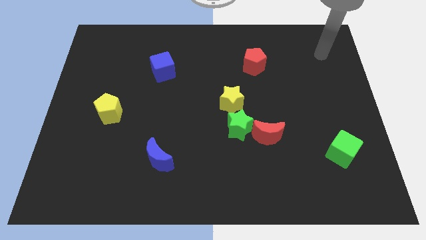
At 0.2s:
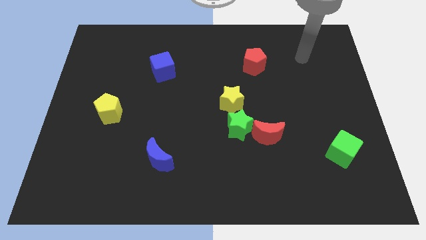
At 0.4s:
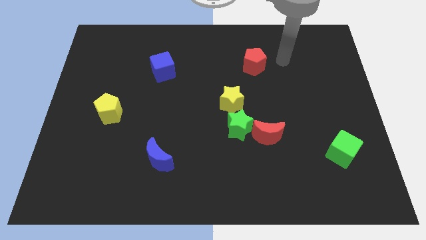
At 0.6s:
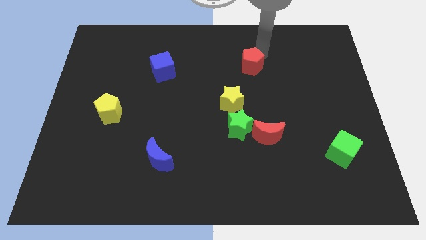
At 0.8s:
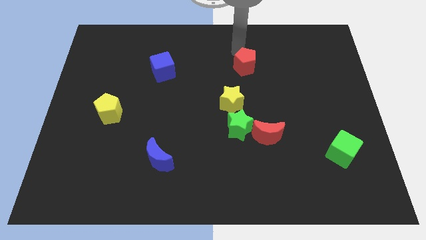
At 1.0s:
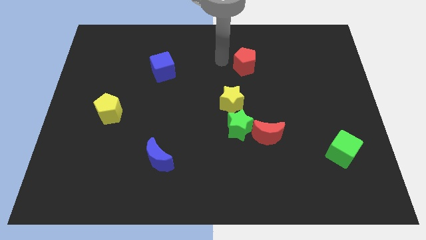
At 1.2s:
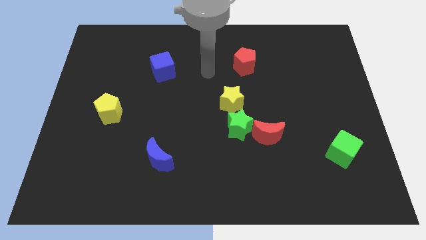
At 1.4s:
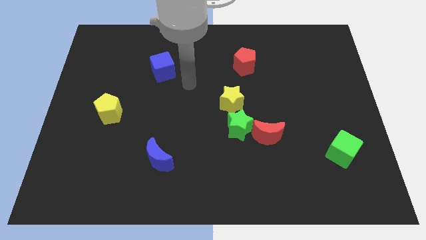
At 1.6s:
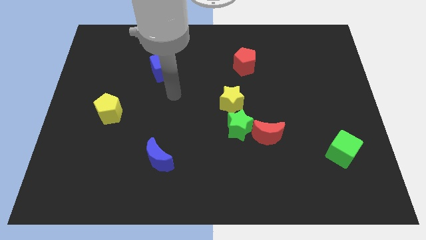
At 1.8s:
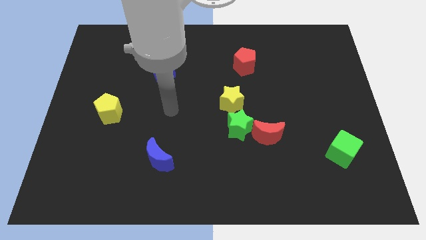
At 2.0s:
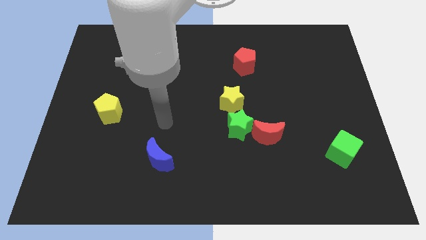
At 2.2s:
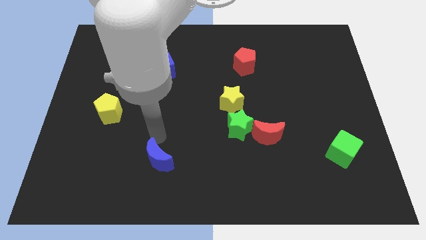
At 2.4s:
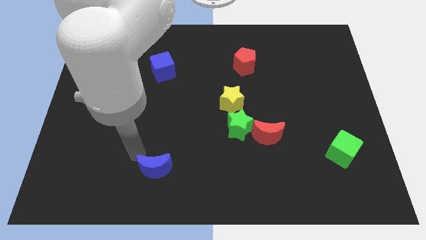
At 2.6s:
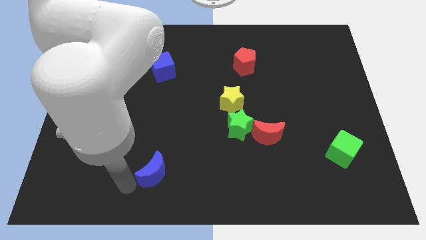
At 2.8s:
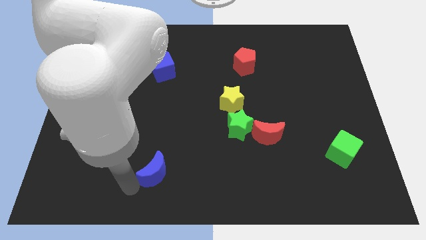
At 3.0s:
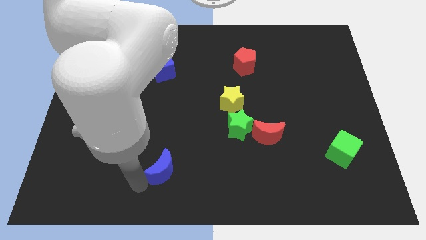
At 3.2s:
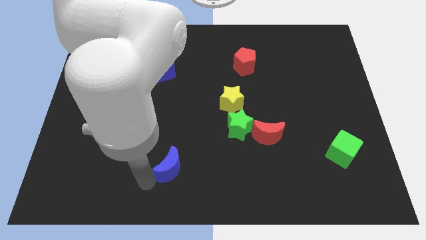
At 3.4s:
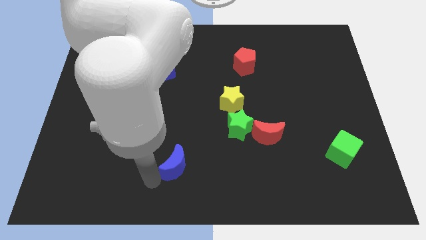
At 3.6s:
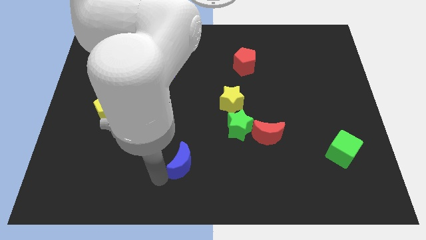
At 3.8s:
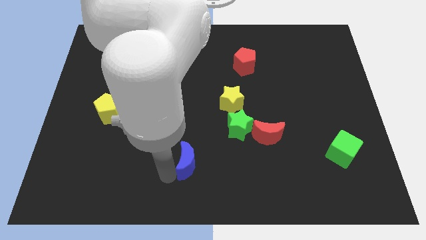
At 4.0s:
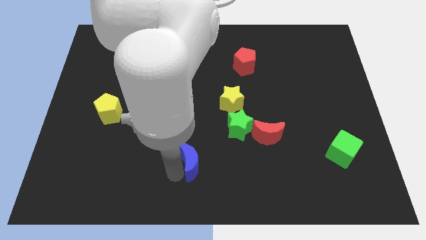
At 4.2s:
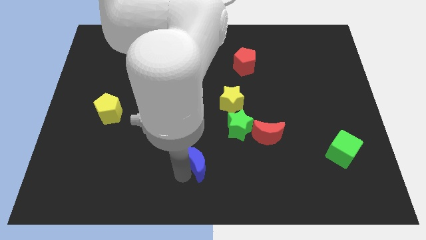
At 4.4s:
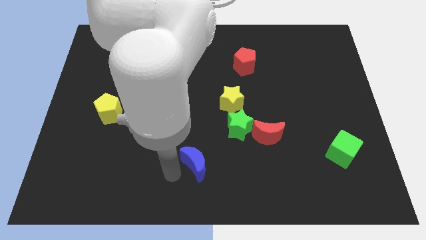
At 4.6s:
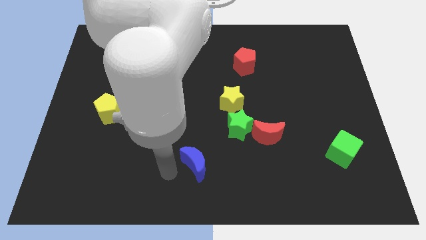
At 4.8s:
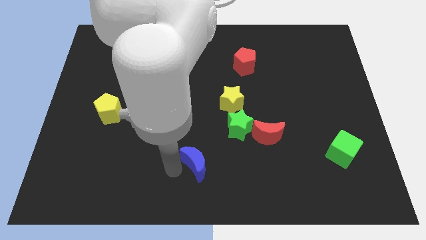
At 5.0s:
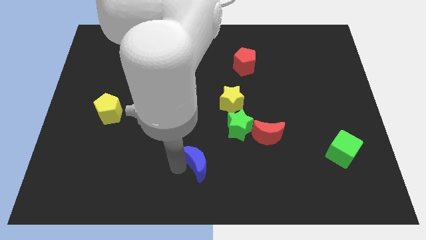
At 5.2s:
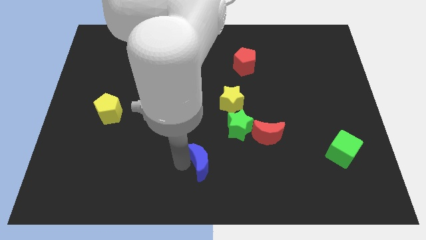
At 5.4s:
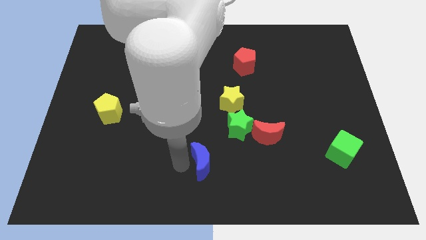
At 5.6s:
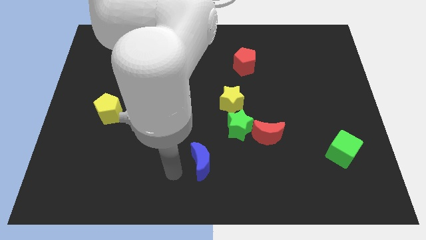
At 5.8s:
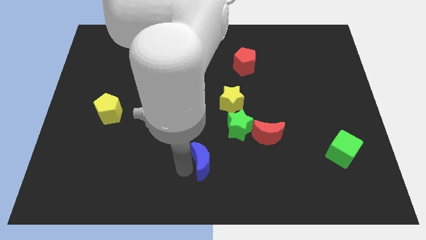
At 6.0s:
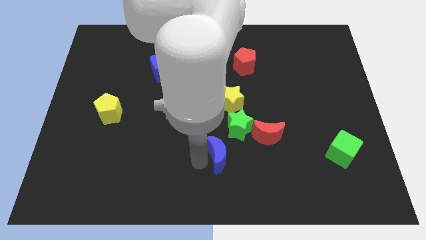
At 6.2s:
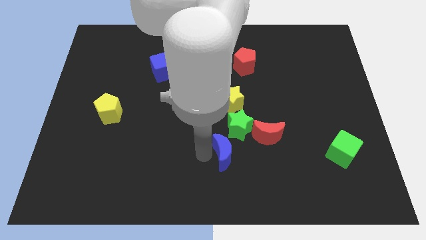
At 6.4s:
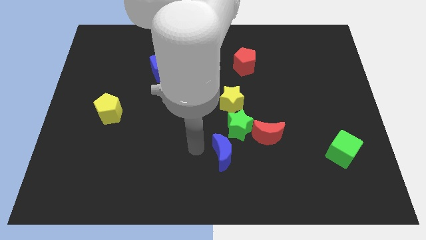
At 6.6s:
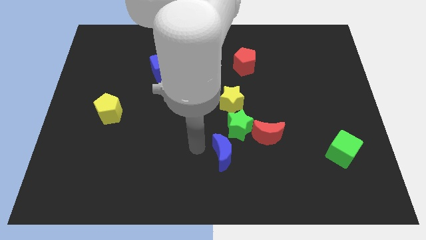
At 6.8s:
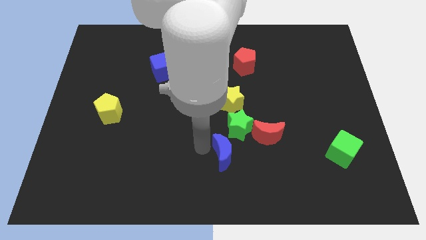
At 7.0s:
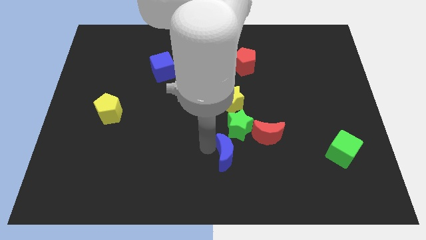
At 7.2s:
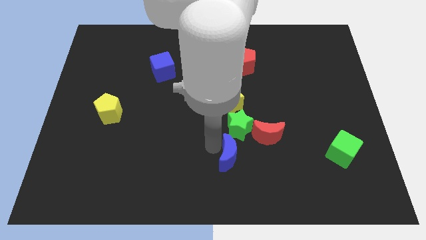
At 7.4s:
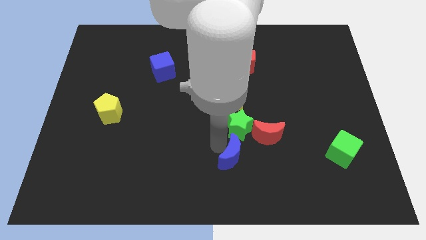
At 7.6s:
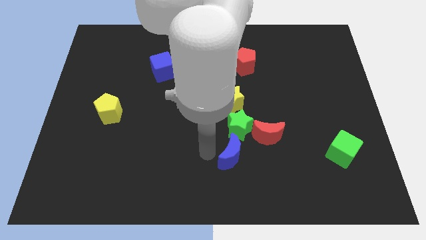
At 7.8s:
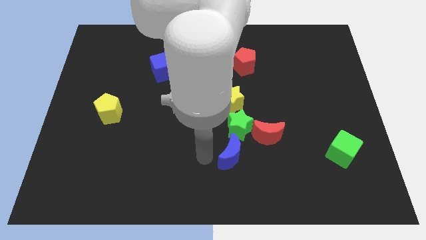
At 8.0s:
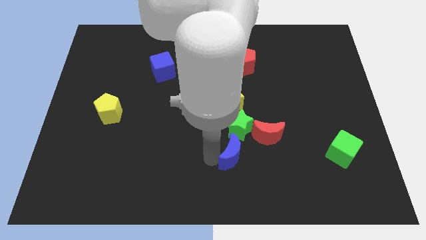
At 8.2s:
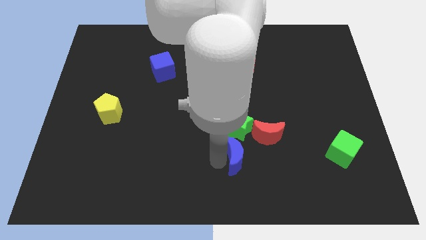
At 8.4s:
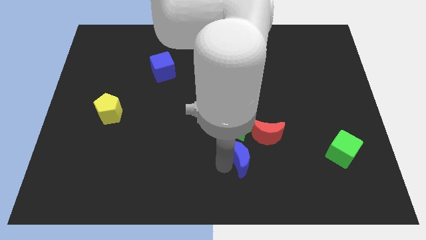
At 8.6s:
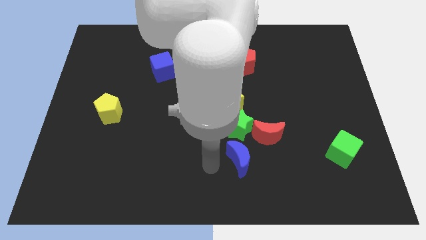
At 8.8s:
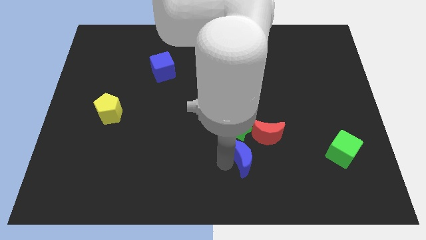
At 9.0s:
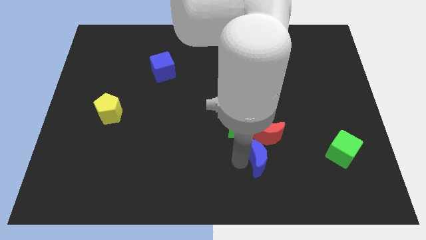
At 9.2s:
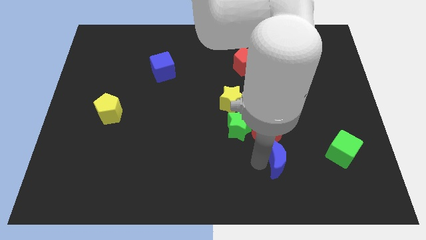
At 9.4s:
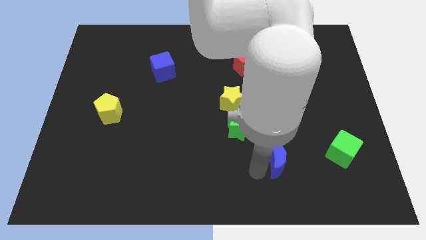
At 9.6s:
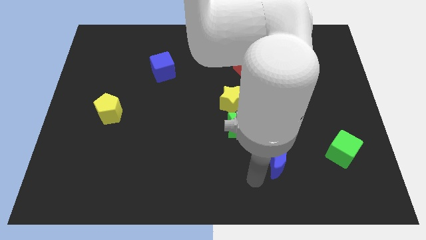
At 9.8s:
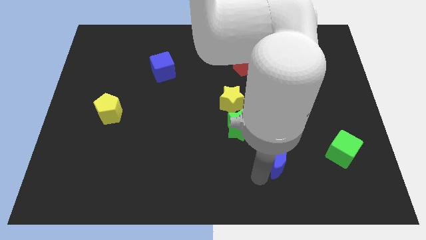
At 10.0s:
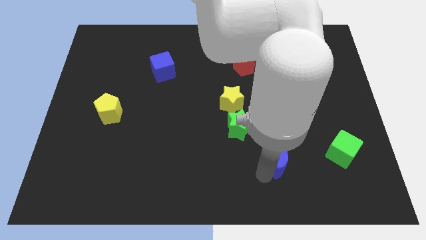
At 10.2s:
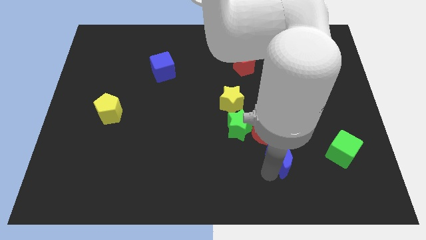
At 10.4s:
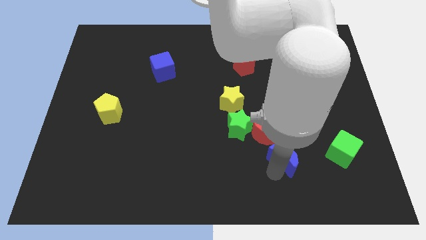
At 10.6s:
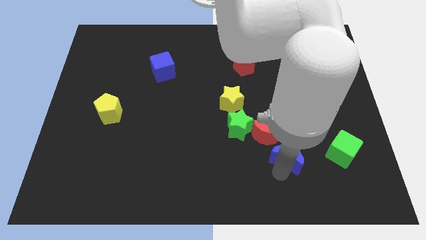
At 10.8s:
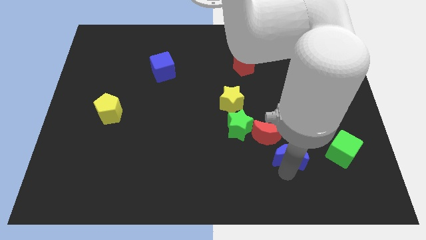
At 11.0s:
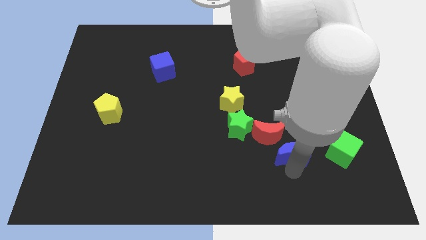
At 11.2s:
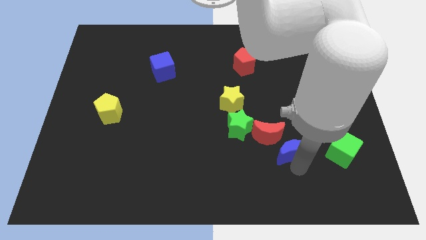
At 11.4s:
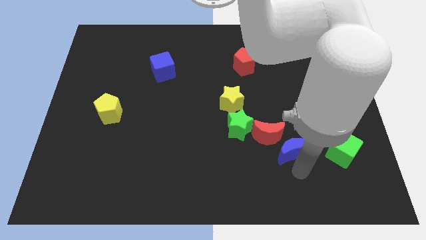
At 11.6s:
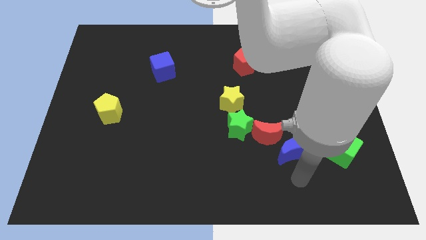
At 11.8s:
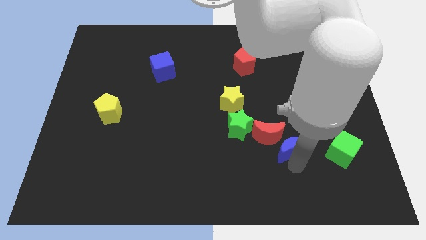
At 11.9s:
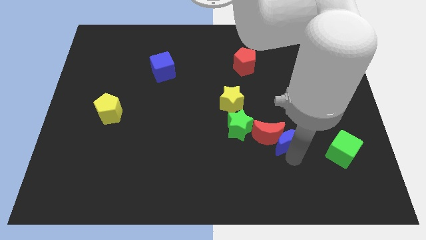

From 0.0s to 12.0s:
push the blue moon right of the green star

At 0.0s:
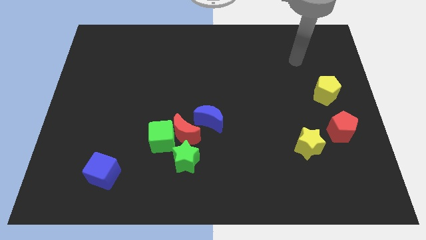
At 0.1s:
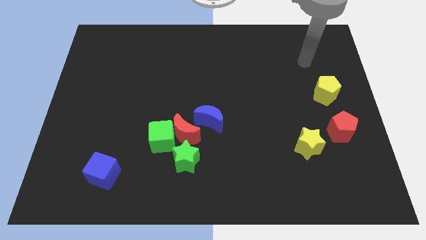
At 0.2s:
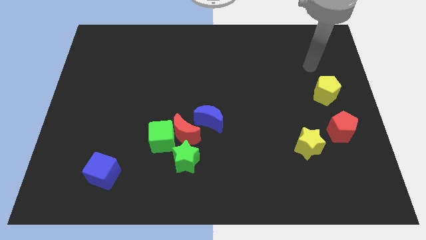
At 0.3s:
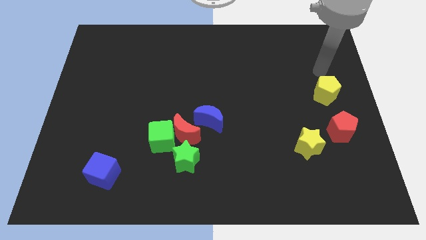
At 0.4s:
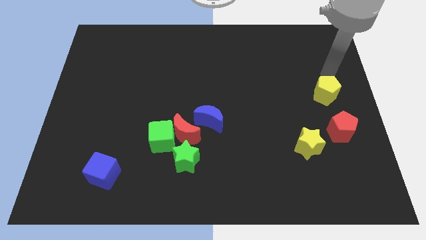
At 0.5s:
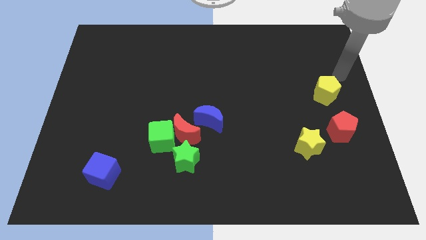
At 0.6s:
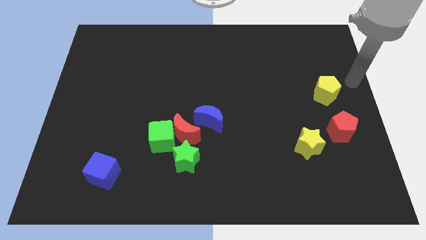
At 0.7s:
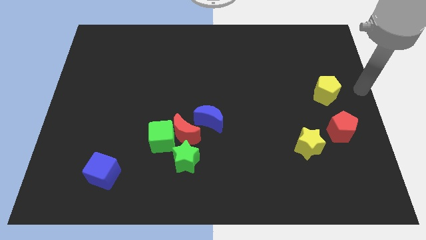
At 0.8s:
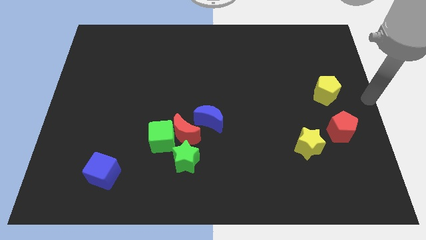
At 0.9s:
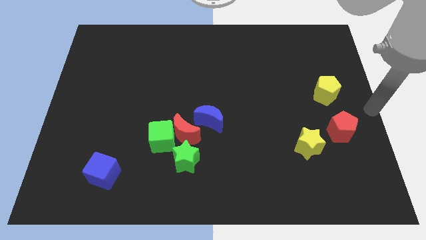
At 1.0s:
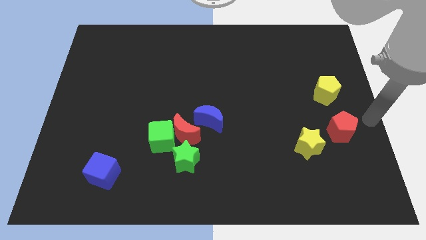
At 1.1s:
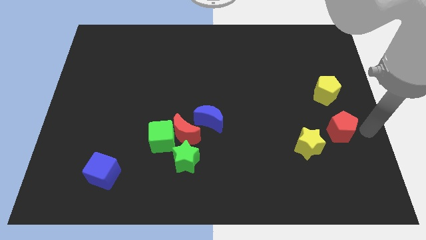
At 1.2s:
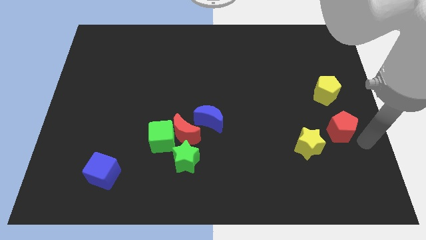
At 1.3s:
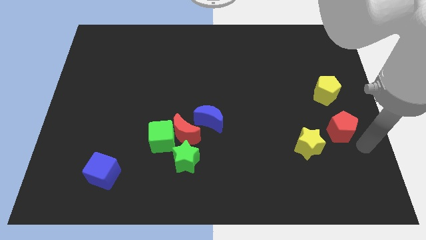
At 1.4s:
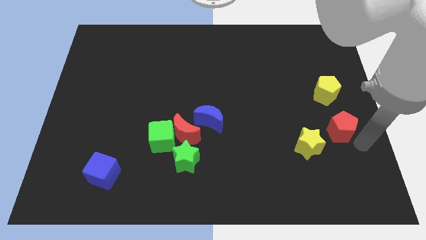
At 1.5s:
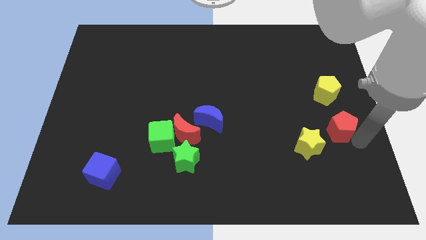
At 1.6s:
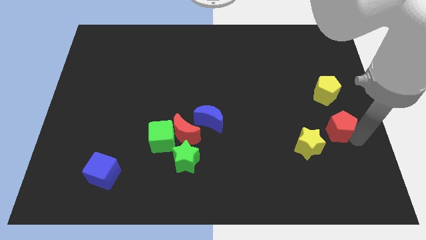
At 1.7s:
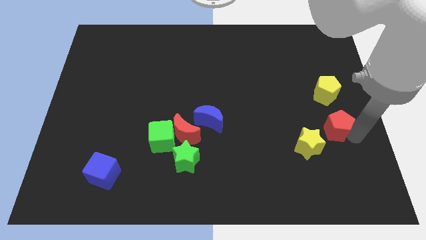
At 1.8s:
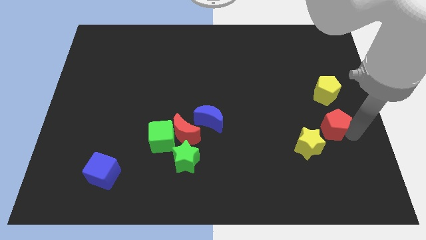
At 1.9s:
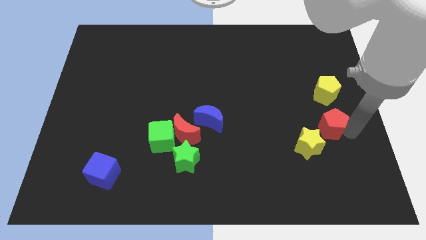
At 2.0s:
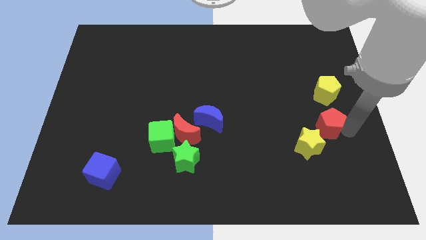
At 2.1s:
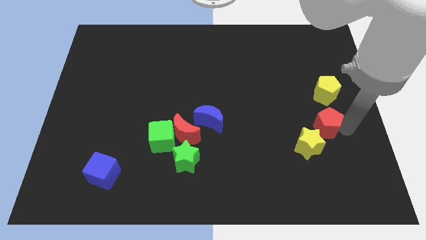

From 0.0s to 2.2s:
put the red pentagon to the top of the yellow star
